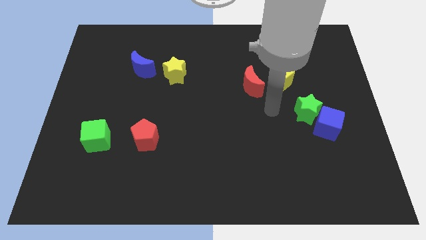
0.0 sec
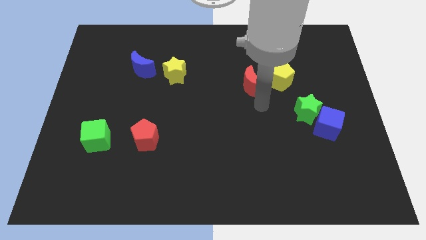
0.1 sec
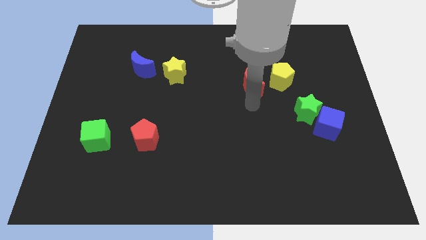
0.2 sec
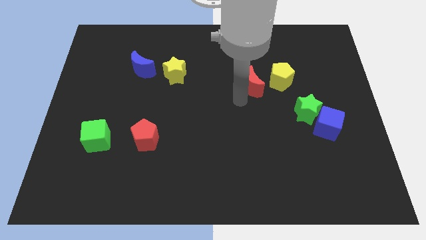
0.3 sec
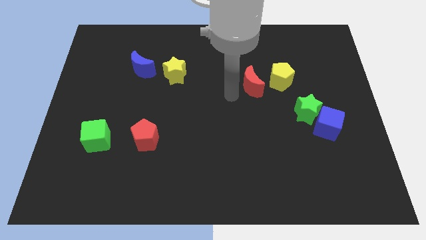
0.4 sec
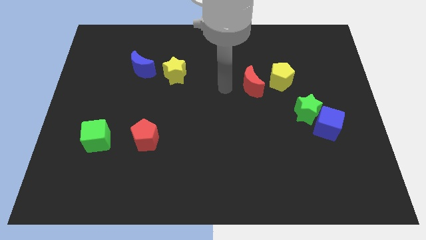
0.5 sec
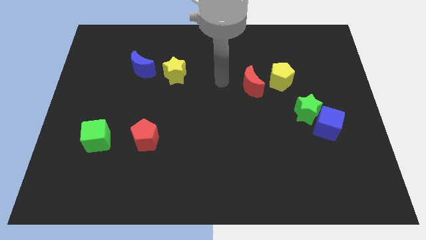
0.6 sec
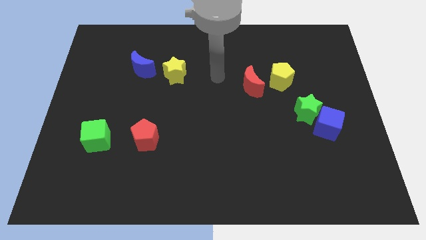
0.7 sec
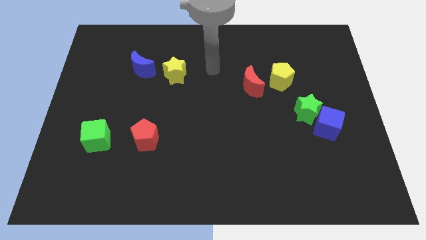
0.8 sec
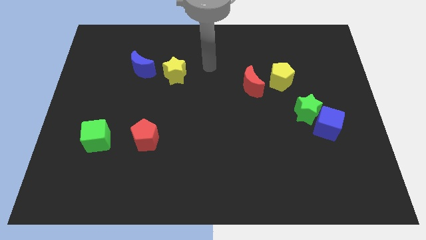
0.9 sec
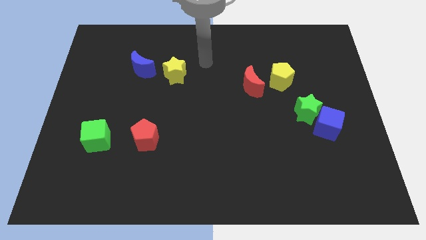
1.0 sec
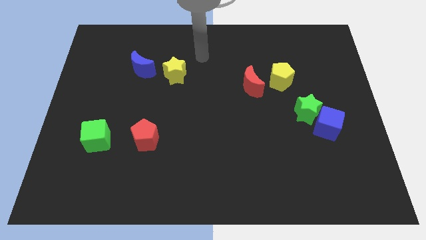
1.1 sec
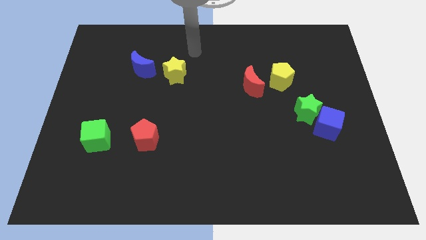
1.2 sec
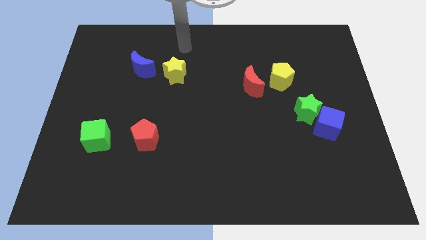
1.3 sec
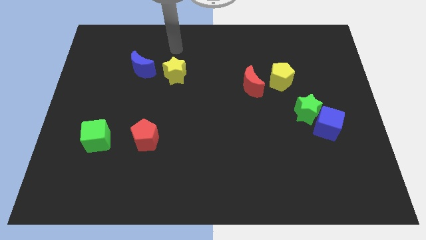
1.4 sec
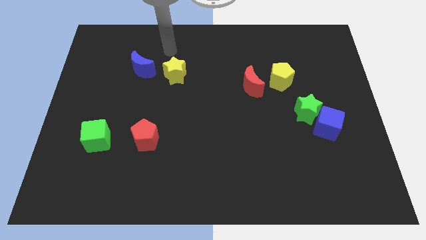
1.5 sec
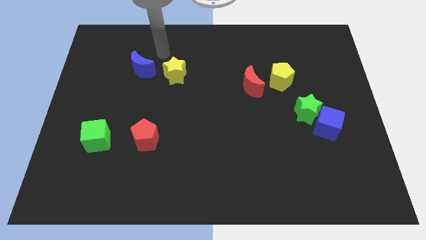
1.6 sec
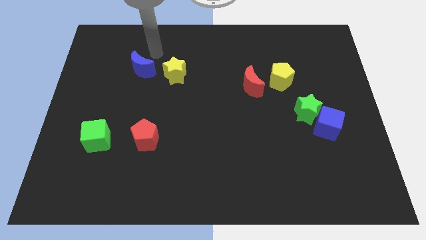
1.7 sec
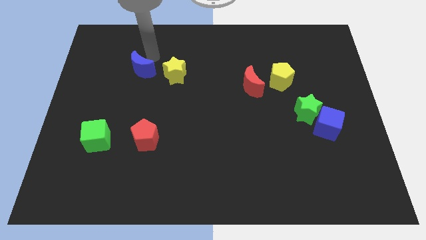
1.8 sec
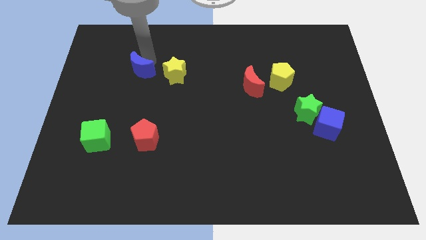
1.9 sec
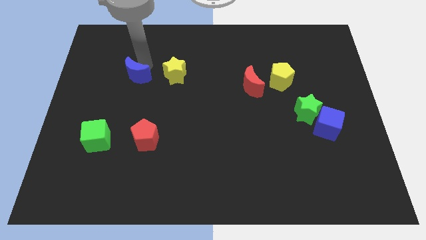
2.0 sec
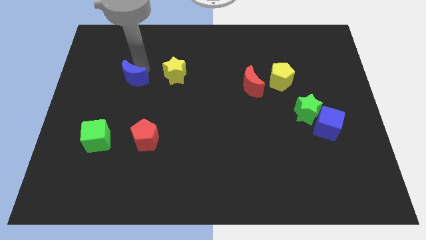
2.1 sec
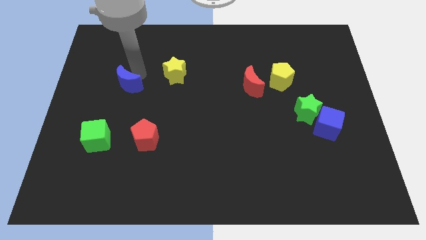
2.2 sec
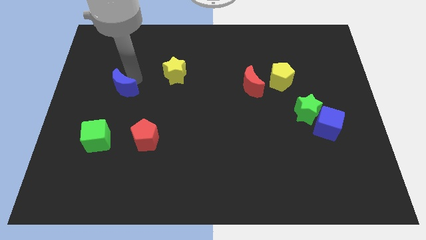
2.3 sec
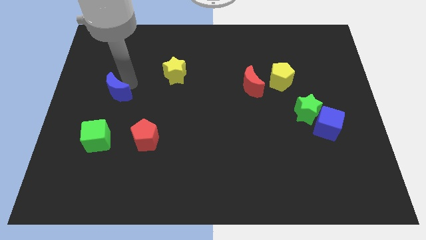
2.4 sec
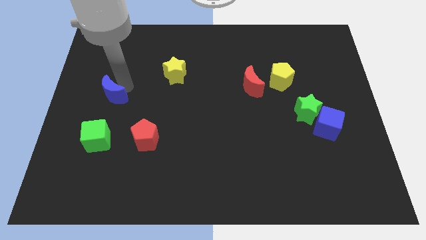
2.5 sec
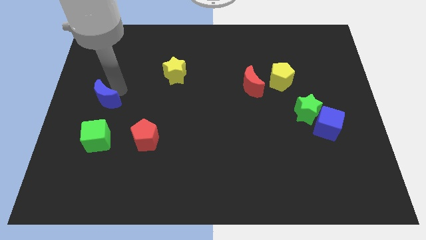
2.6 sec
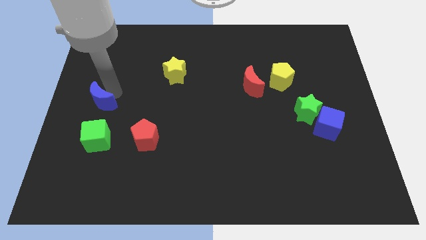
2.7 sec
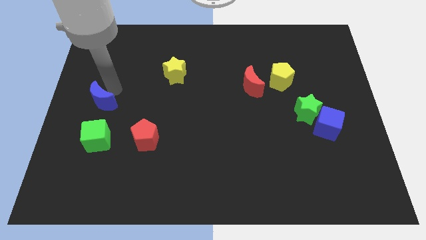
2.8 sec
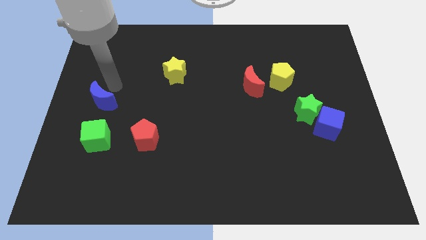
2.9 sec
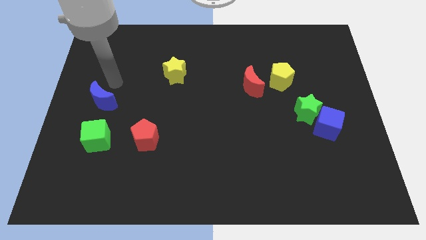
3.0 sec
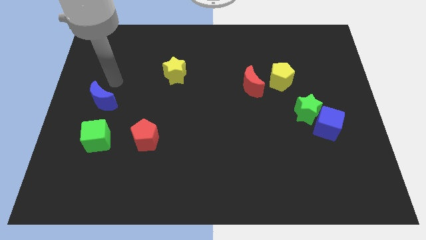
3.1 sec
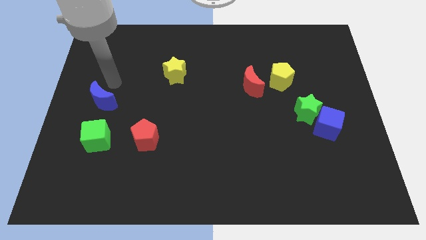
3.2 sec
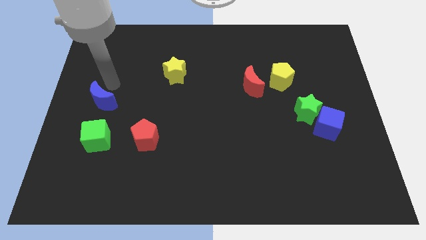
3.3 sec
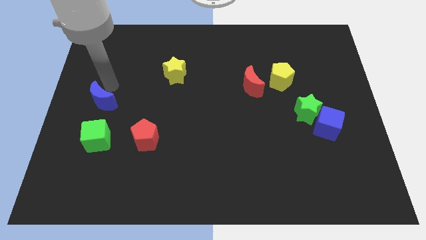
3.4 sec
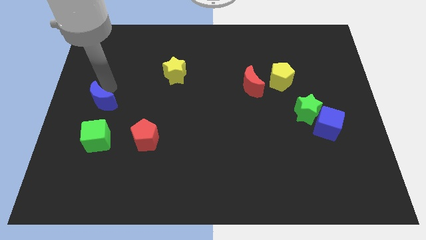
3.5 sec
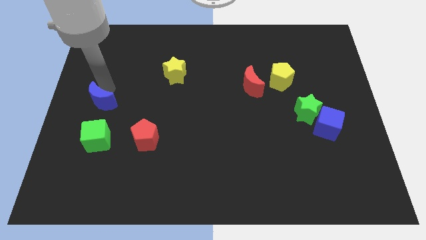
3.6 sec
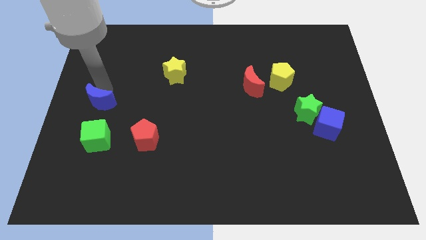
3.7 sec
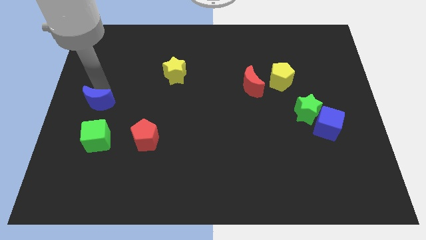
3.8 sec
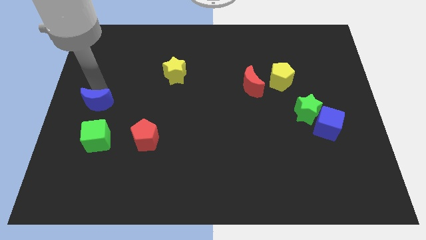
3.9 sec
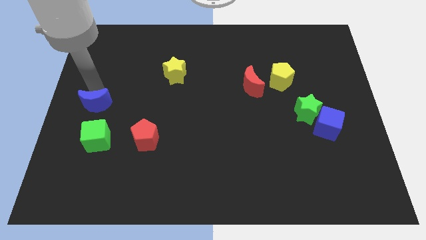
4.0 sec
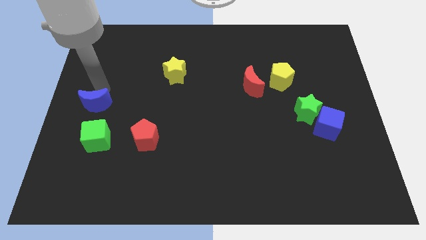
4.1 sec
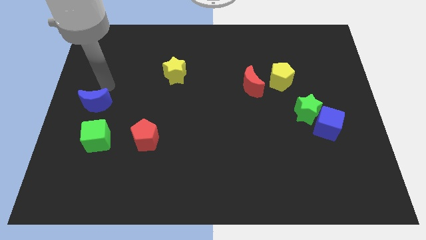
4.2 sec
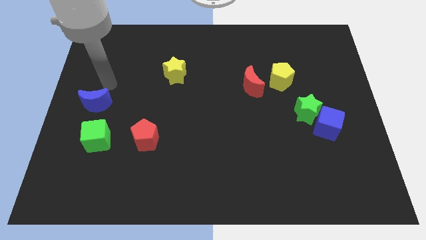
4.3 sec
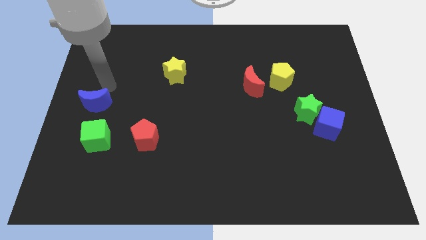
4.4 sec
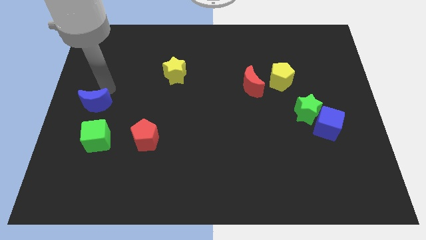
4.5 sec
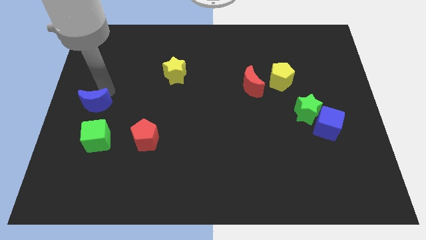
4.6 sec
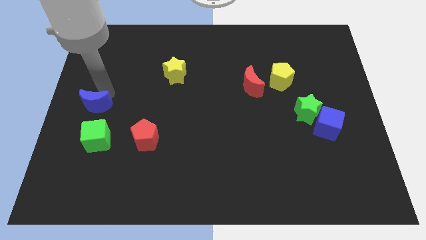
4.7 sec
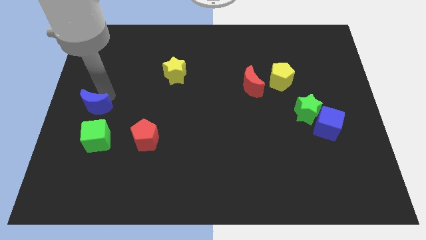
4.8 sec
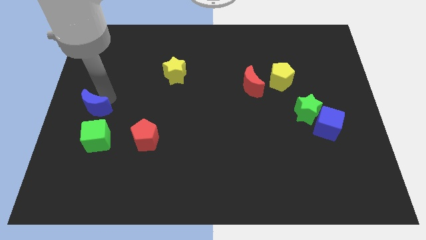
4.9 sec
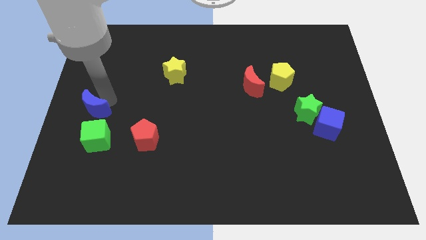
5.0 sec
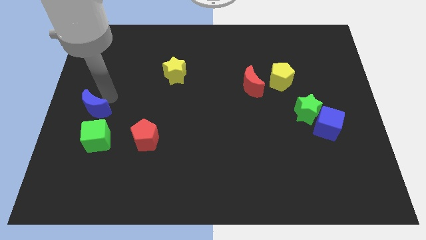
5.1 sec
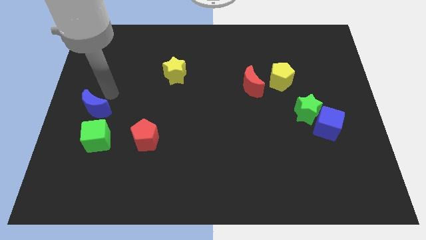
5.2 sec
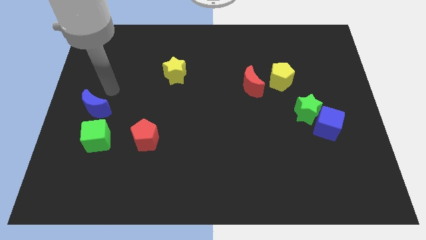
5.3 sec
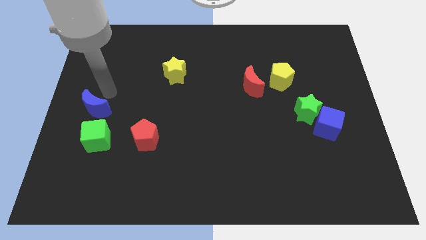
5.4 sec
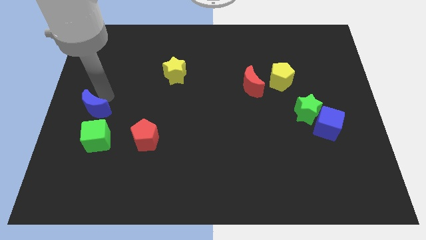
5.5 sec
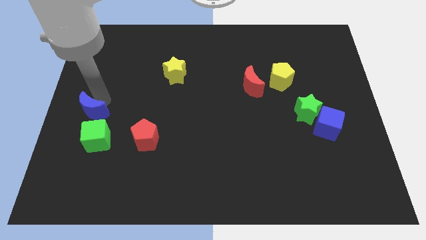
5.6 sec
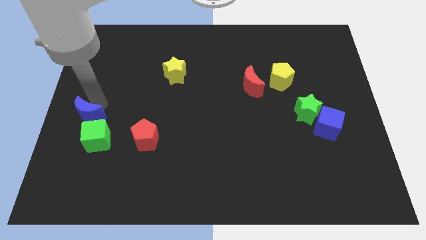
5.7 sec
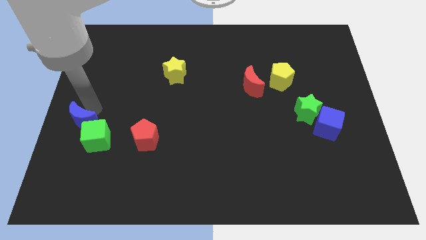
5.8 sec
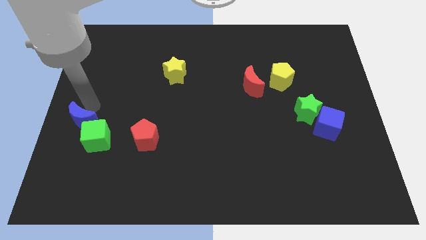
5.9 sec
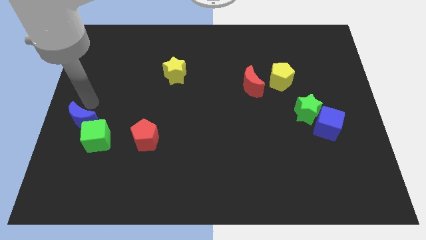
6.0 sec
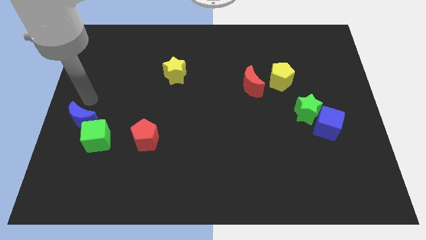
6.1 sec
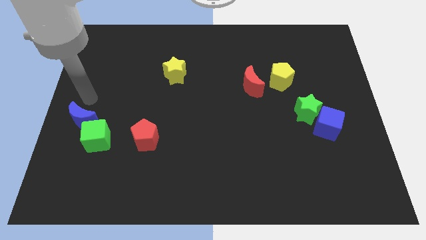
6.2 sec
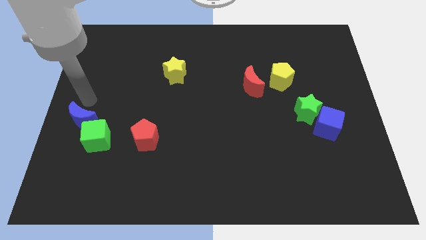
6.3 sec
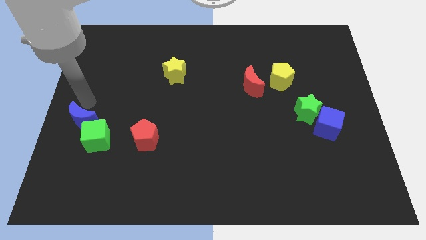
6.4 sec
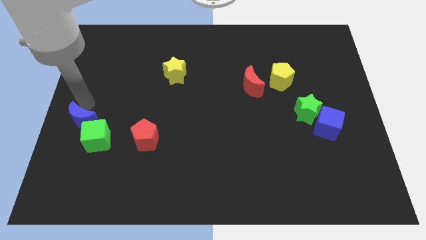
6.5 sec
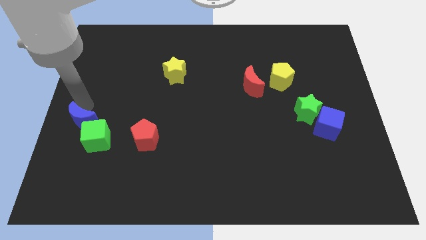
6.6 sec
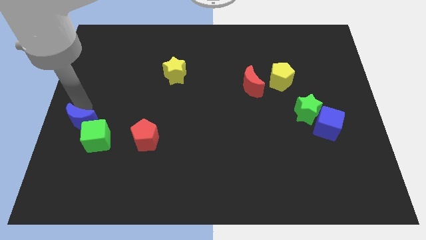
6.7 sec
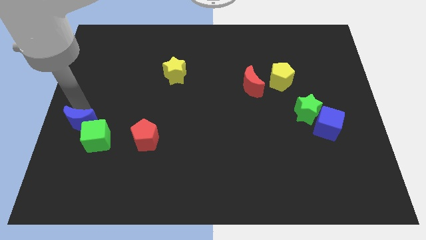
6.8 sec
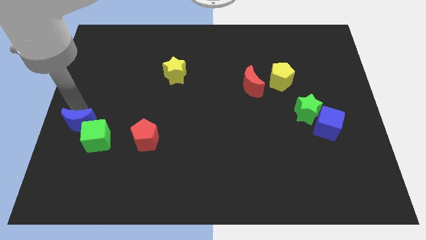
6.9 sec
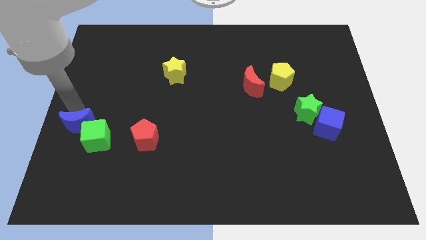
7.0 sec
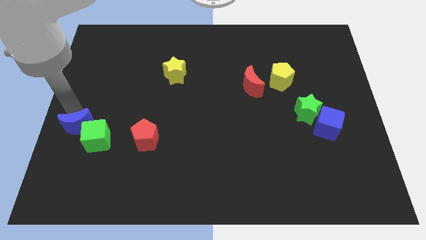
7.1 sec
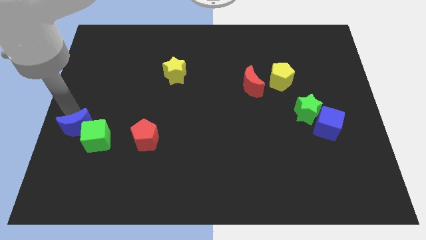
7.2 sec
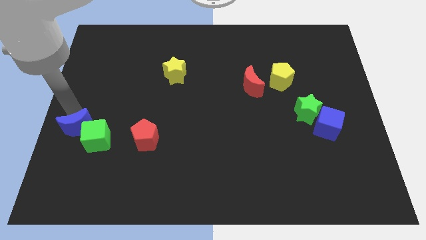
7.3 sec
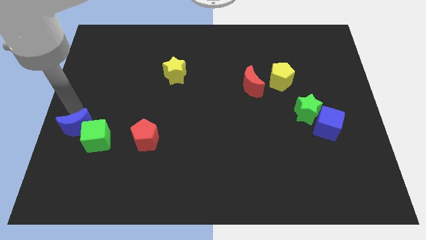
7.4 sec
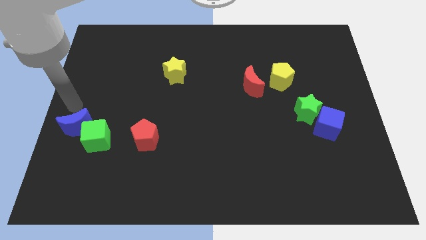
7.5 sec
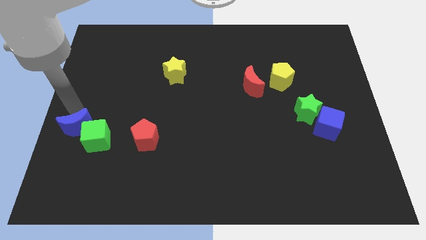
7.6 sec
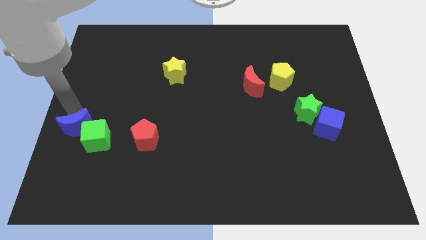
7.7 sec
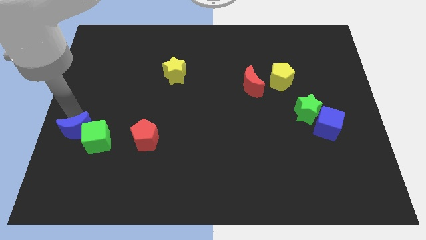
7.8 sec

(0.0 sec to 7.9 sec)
move the blue moon left of the red pentagon
